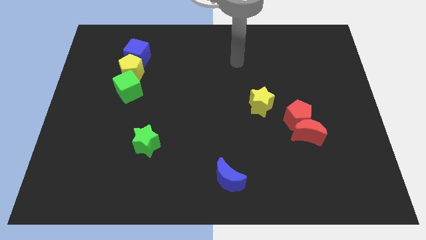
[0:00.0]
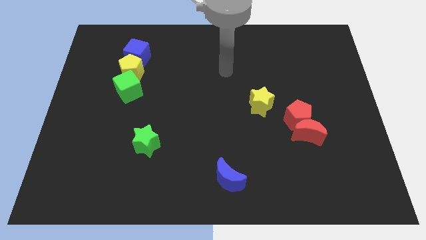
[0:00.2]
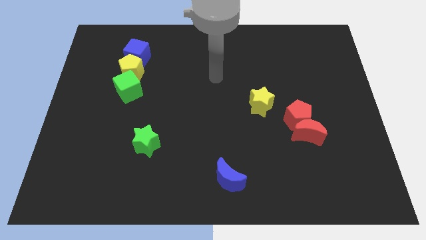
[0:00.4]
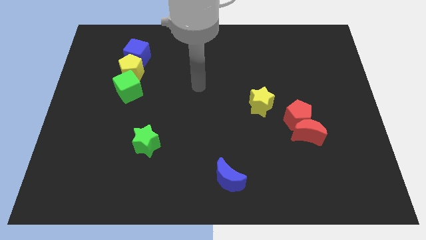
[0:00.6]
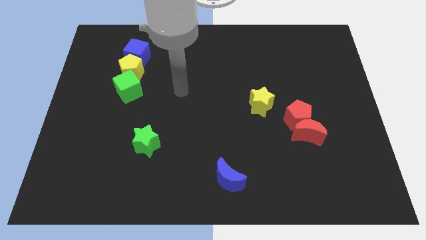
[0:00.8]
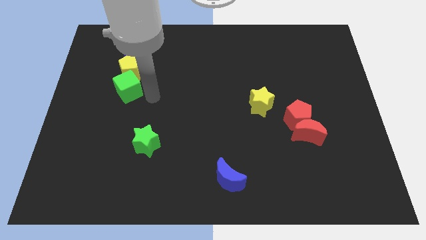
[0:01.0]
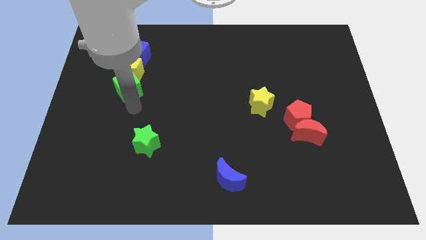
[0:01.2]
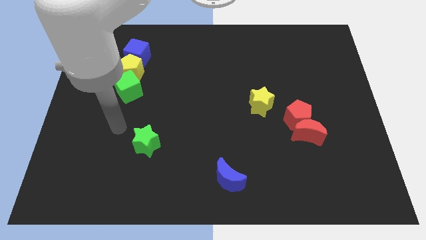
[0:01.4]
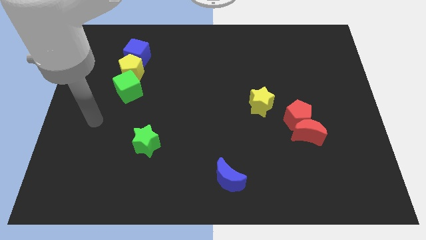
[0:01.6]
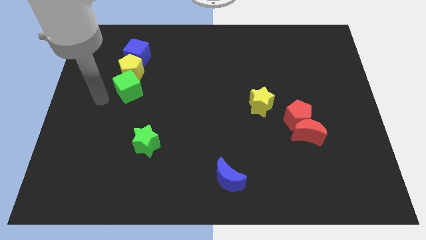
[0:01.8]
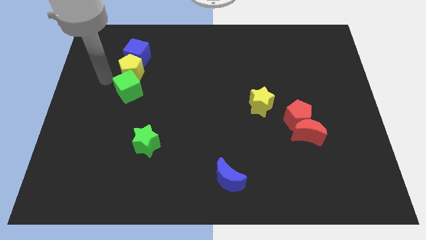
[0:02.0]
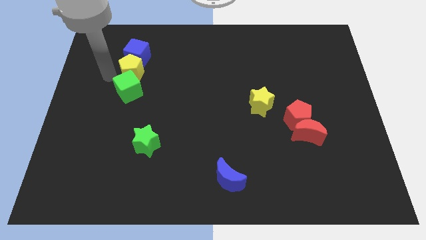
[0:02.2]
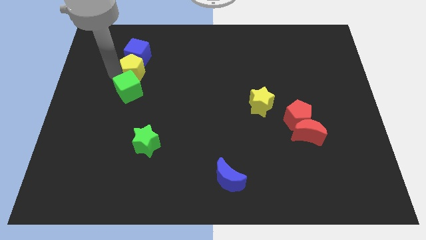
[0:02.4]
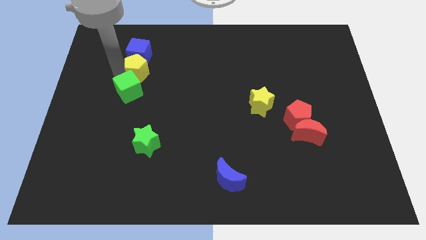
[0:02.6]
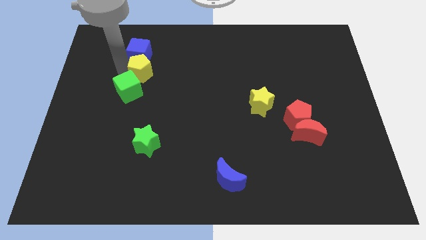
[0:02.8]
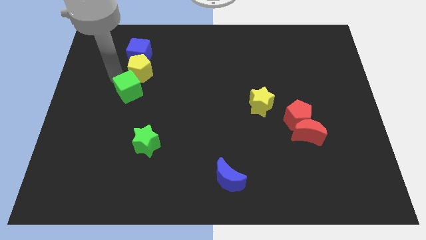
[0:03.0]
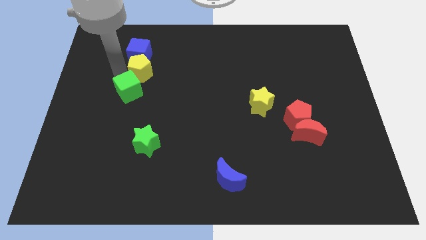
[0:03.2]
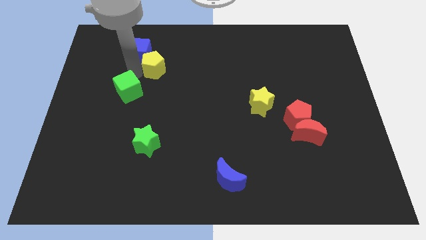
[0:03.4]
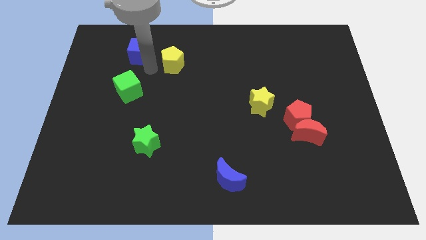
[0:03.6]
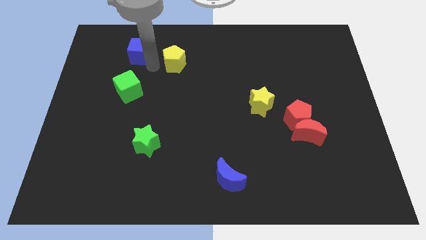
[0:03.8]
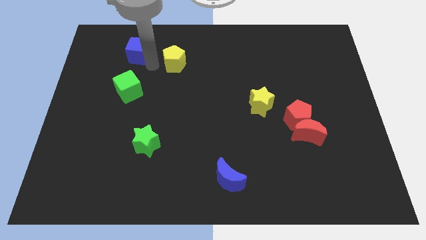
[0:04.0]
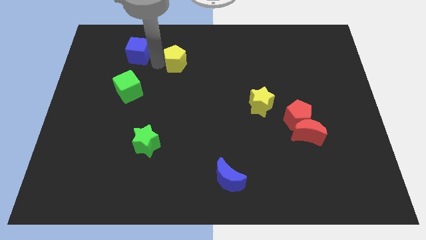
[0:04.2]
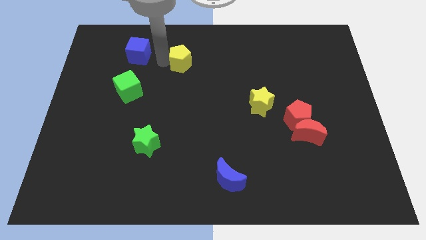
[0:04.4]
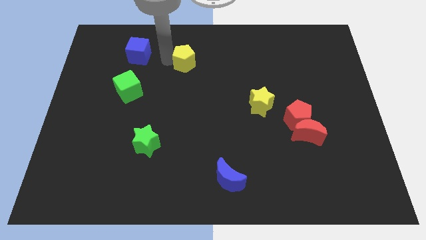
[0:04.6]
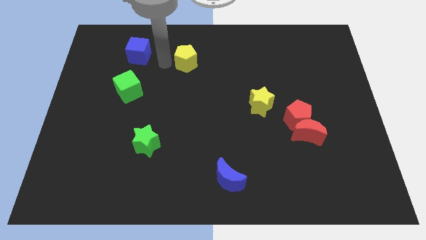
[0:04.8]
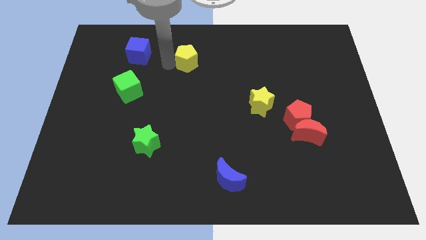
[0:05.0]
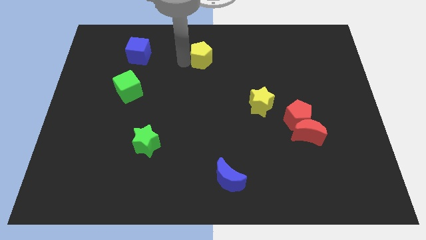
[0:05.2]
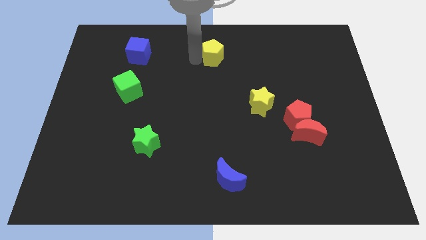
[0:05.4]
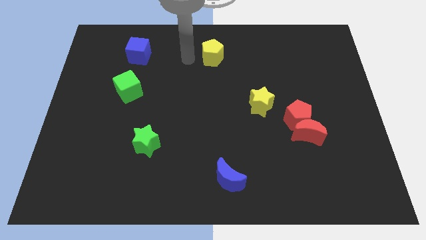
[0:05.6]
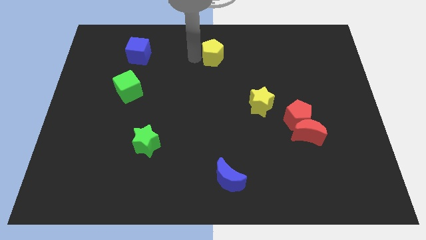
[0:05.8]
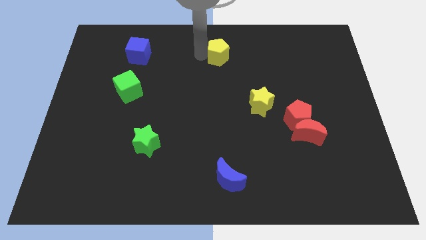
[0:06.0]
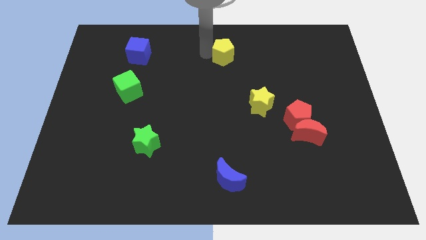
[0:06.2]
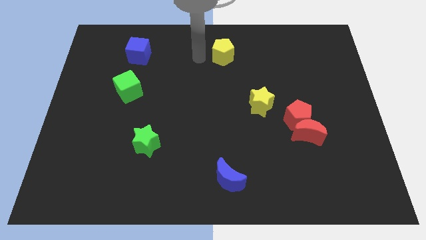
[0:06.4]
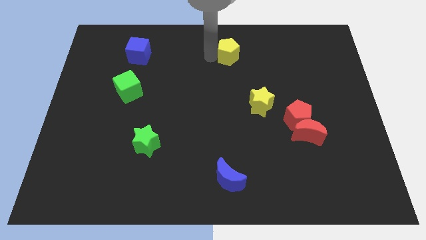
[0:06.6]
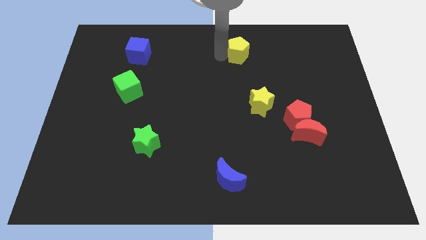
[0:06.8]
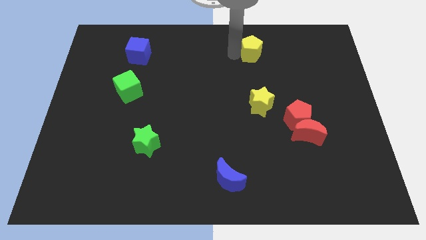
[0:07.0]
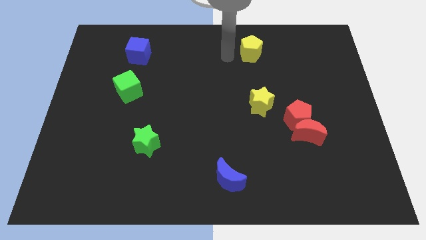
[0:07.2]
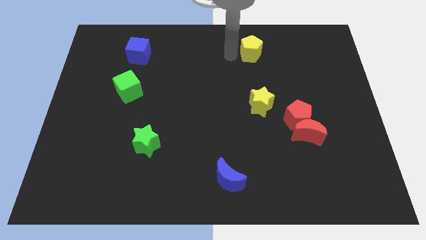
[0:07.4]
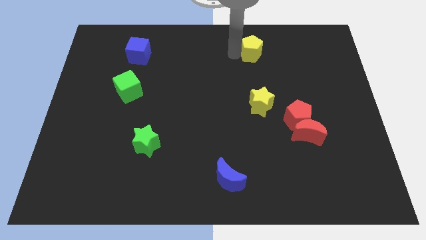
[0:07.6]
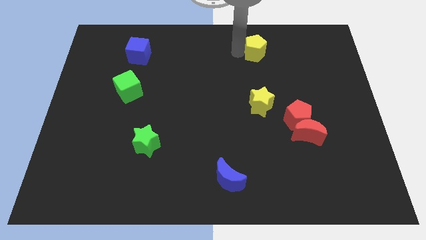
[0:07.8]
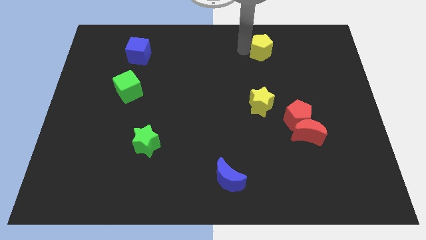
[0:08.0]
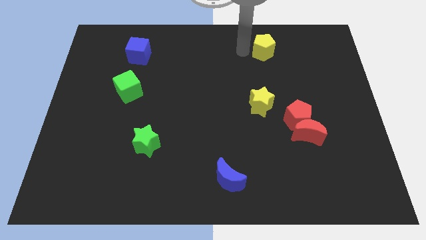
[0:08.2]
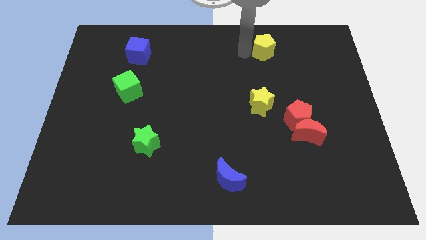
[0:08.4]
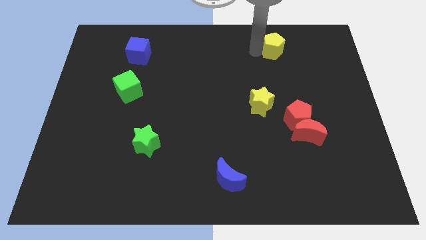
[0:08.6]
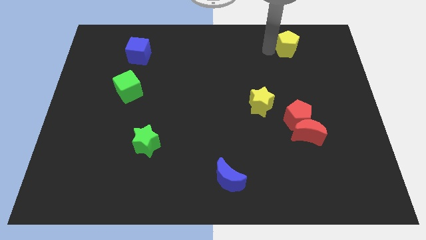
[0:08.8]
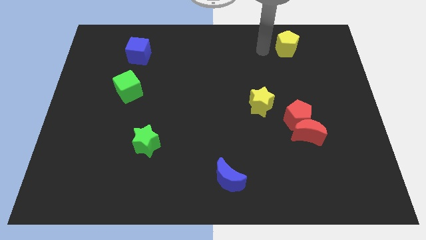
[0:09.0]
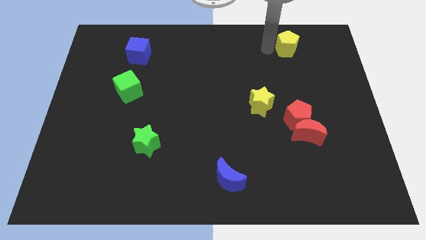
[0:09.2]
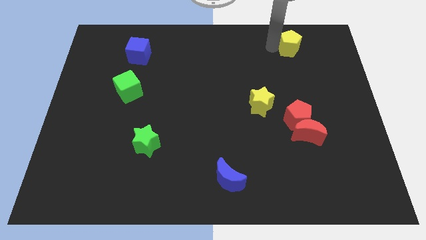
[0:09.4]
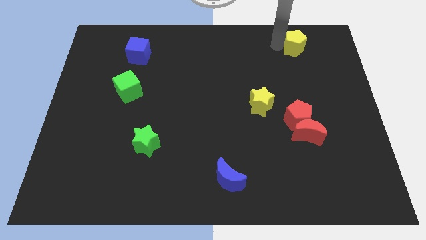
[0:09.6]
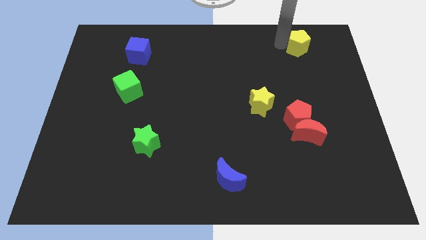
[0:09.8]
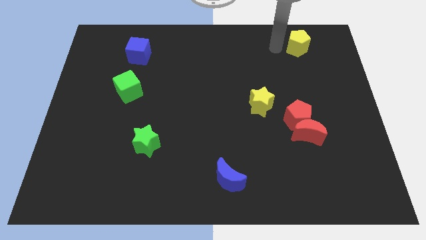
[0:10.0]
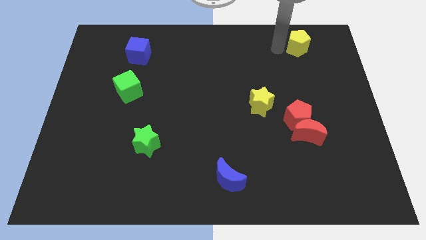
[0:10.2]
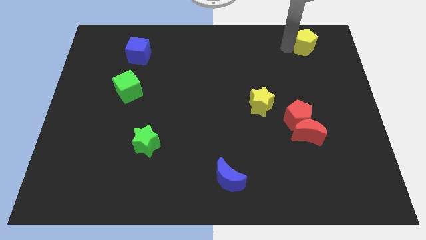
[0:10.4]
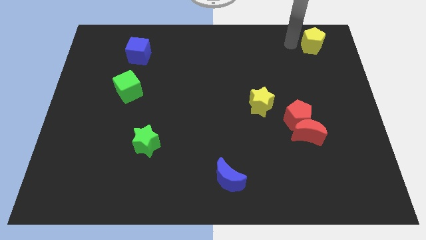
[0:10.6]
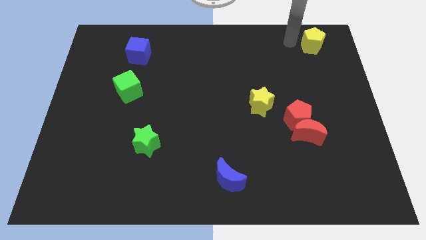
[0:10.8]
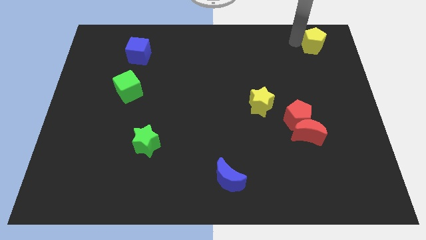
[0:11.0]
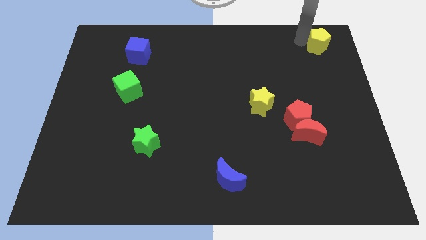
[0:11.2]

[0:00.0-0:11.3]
put the yellow pentagon to the top right corner

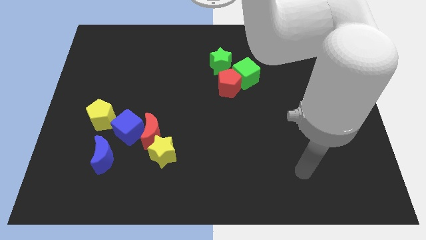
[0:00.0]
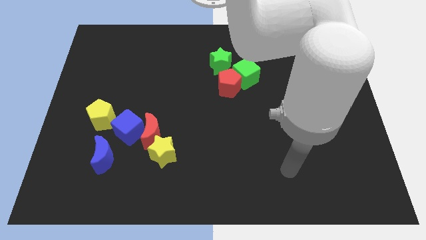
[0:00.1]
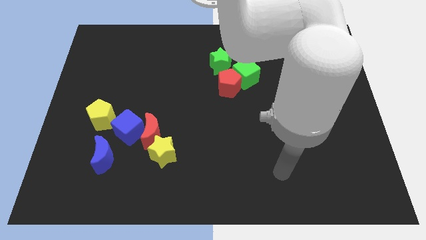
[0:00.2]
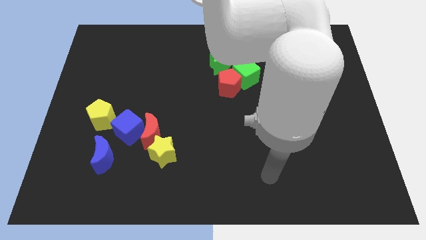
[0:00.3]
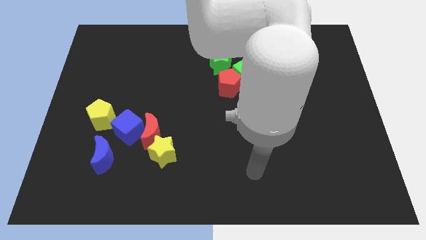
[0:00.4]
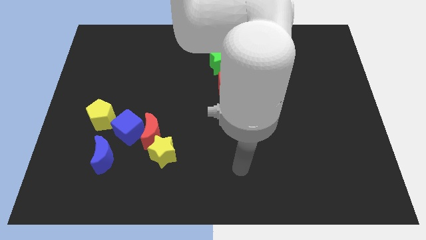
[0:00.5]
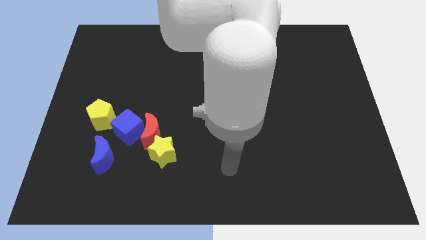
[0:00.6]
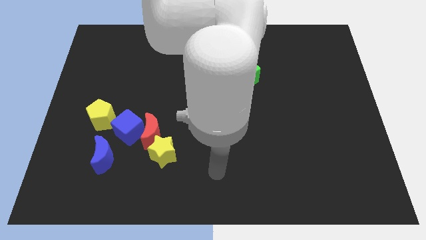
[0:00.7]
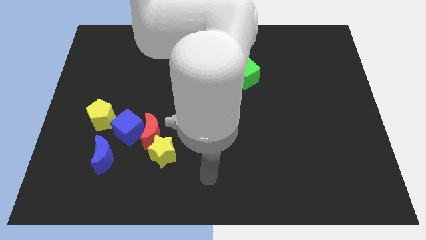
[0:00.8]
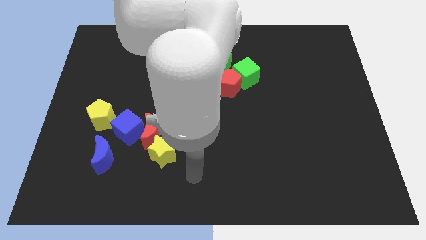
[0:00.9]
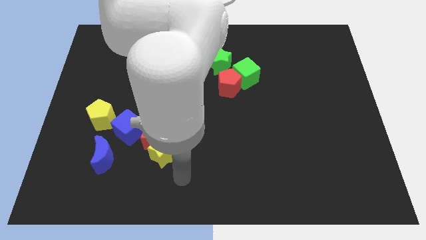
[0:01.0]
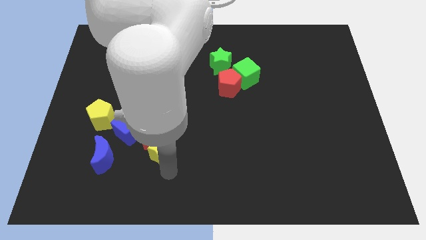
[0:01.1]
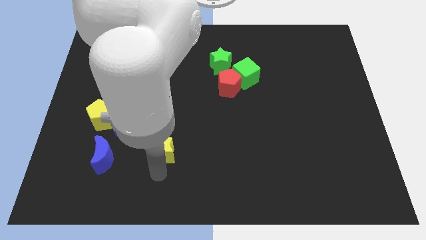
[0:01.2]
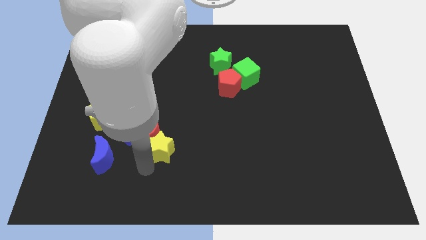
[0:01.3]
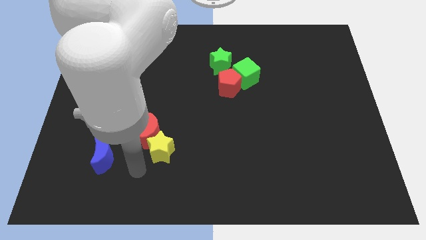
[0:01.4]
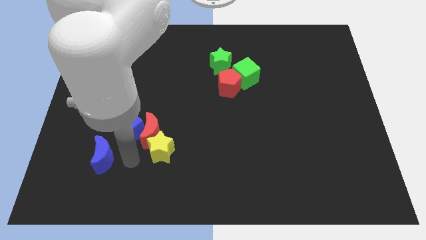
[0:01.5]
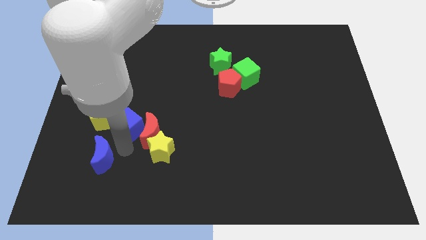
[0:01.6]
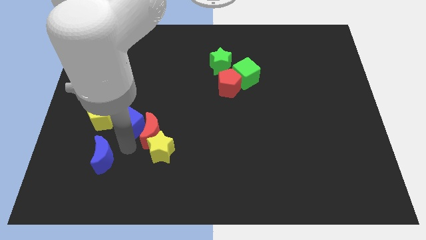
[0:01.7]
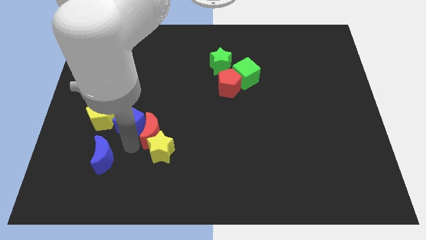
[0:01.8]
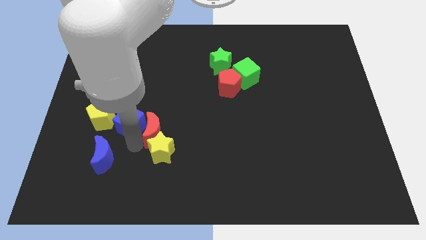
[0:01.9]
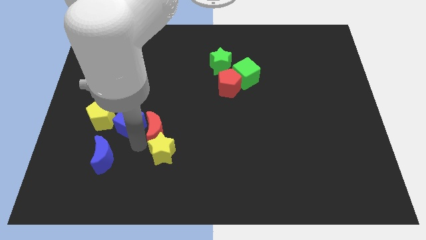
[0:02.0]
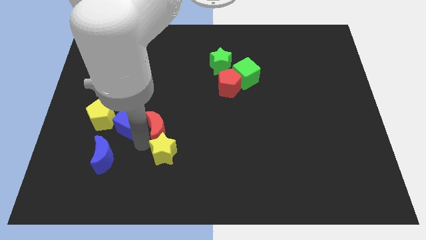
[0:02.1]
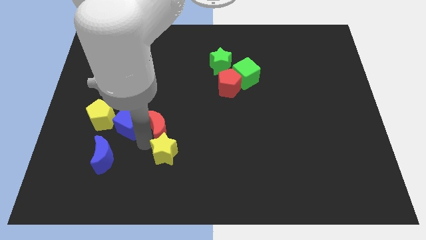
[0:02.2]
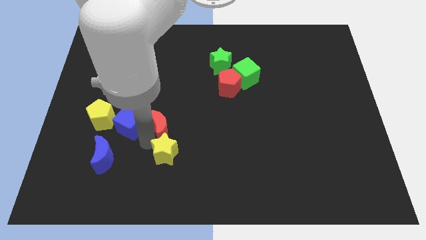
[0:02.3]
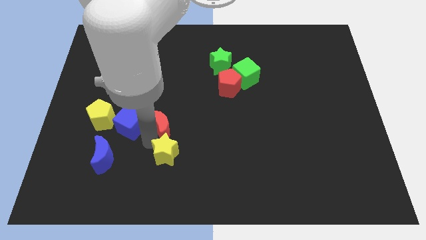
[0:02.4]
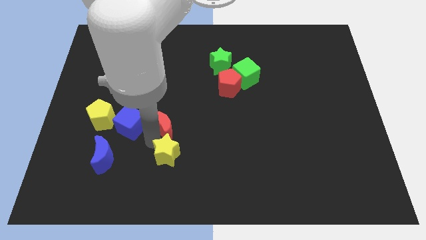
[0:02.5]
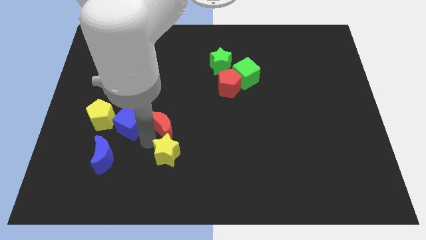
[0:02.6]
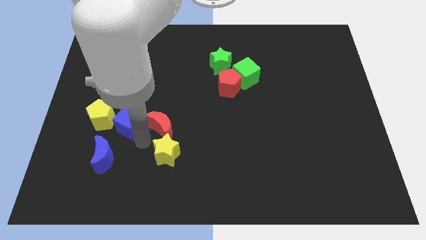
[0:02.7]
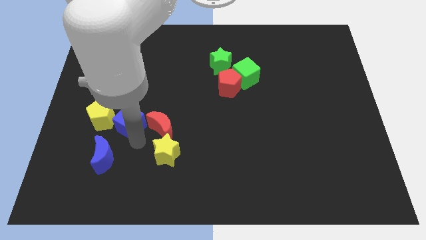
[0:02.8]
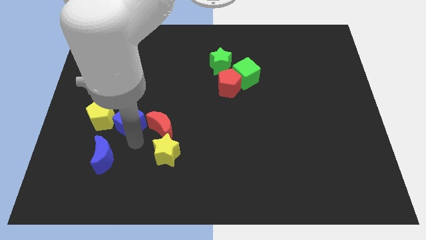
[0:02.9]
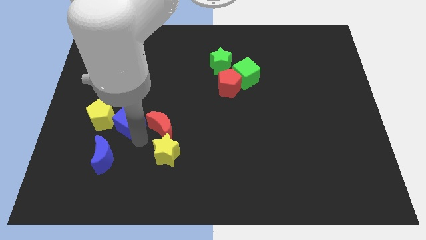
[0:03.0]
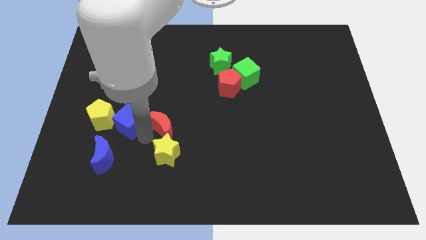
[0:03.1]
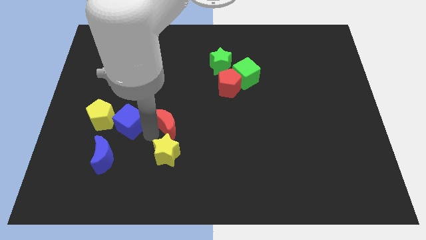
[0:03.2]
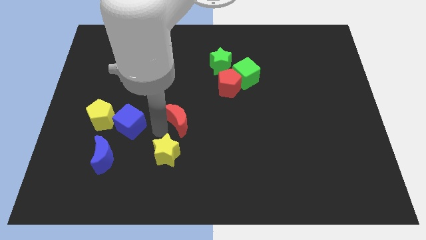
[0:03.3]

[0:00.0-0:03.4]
push the red moon to the center of the board
